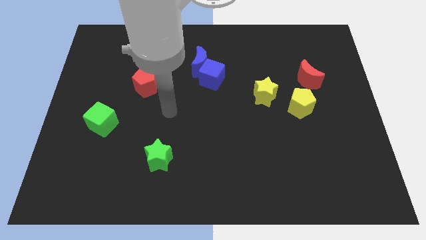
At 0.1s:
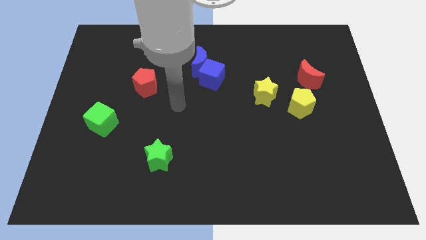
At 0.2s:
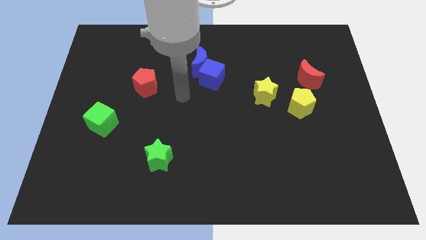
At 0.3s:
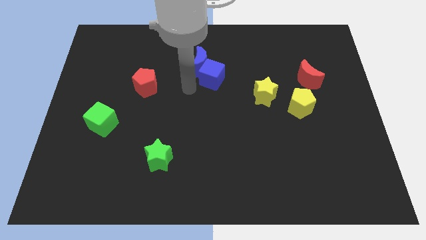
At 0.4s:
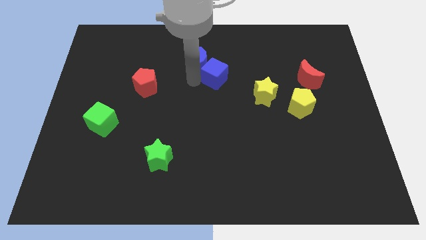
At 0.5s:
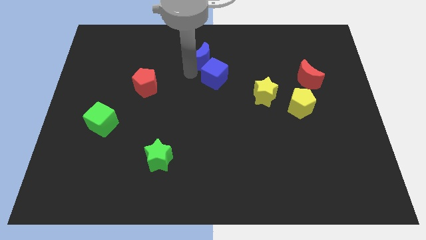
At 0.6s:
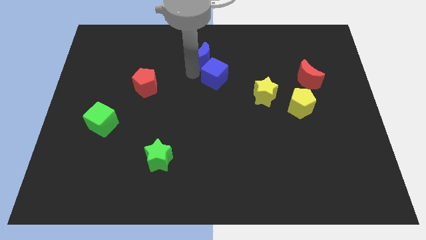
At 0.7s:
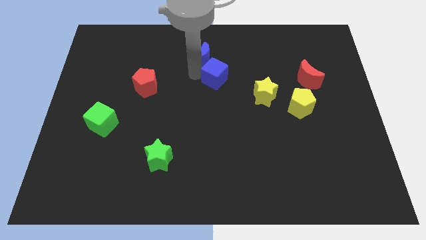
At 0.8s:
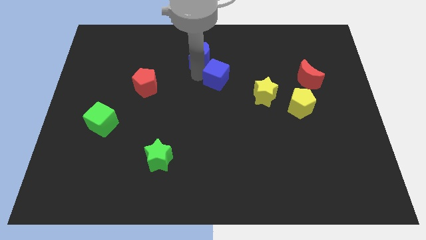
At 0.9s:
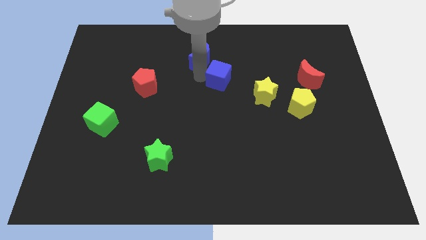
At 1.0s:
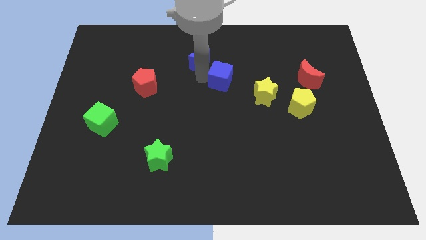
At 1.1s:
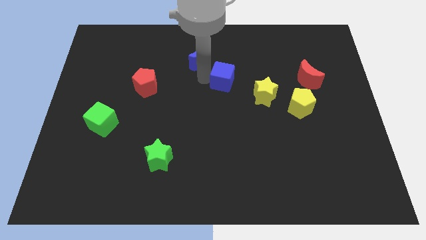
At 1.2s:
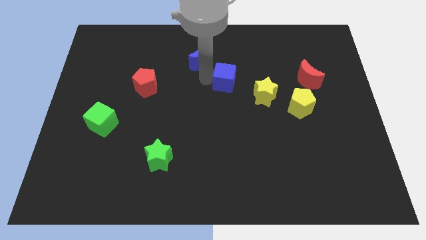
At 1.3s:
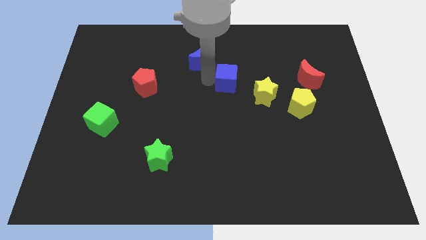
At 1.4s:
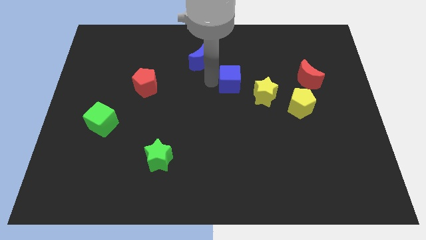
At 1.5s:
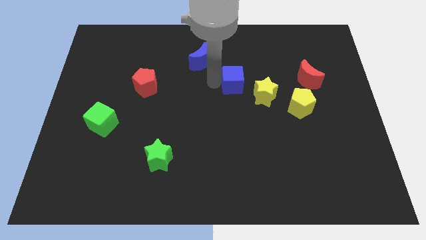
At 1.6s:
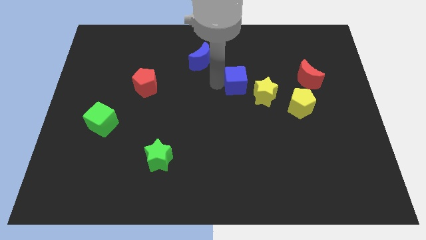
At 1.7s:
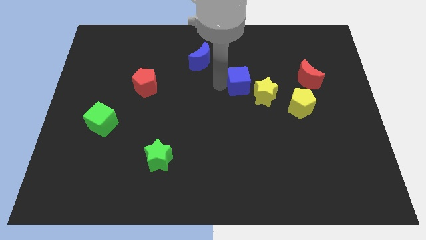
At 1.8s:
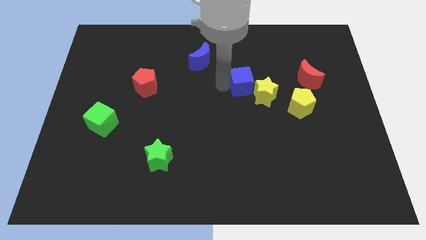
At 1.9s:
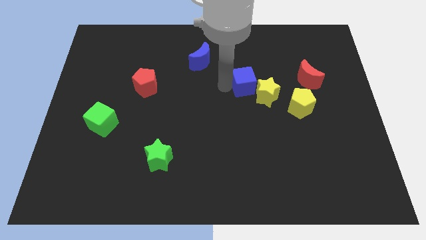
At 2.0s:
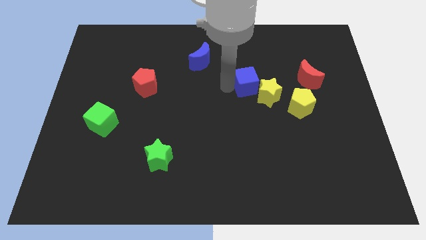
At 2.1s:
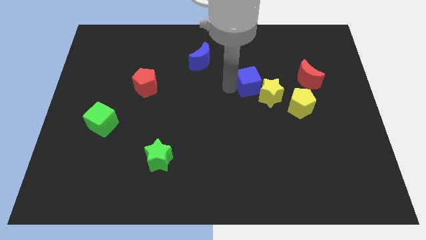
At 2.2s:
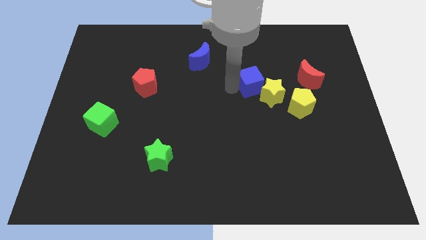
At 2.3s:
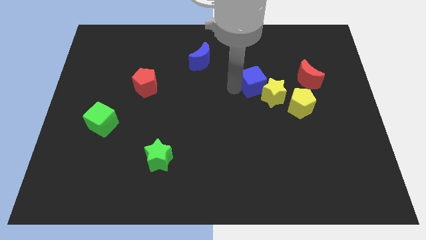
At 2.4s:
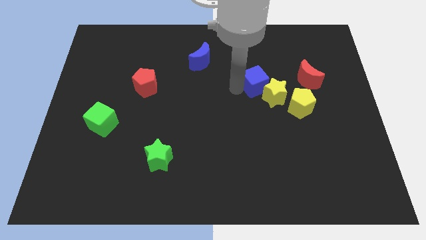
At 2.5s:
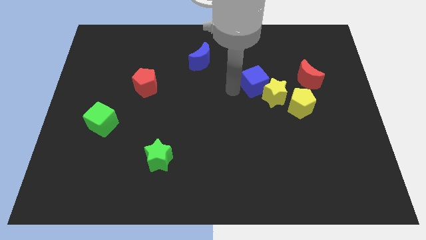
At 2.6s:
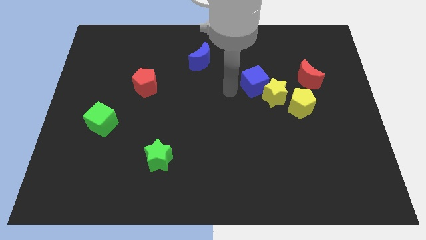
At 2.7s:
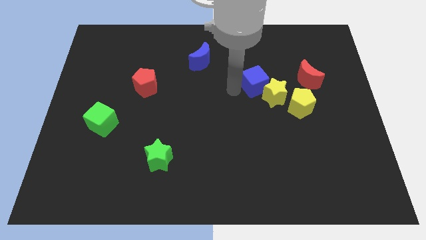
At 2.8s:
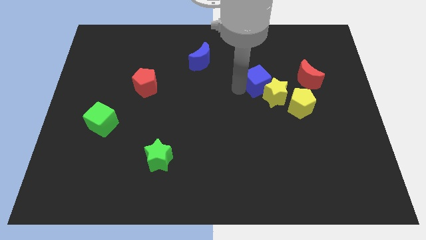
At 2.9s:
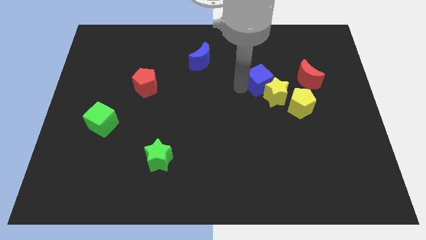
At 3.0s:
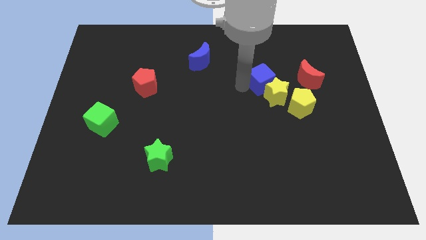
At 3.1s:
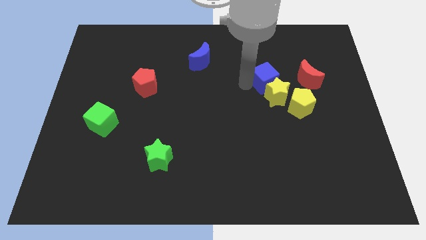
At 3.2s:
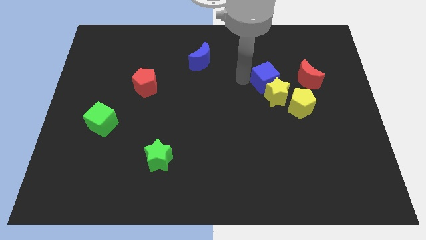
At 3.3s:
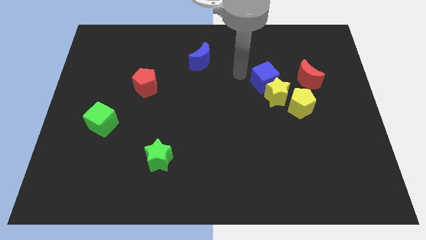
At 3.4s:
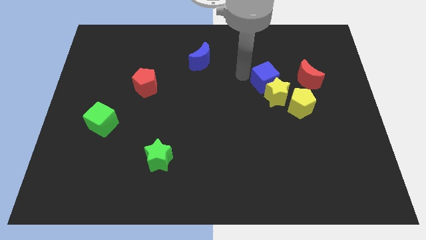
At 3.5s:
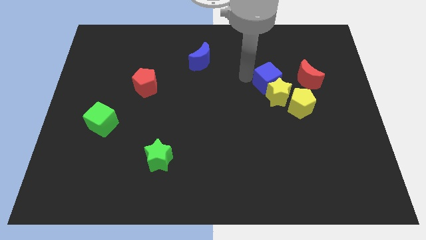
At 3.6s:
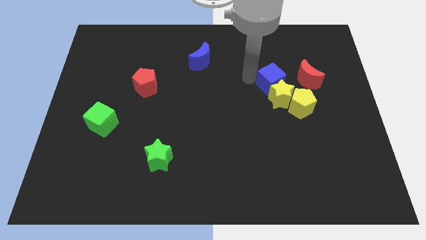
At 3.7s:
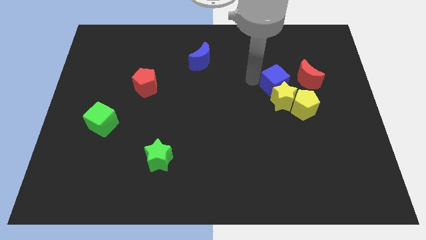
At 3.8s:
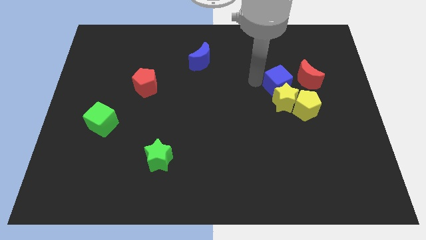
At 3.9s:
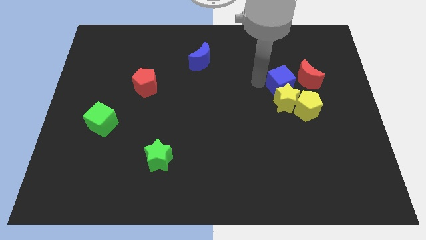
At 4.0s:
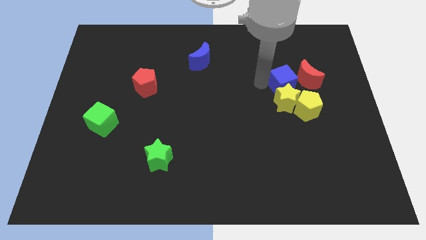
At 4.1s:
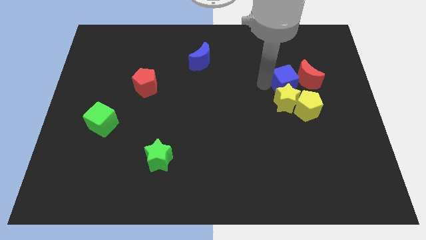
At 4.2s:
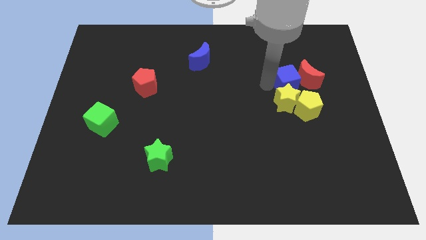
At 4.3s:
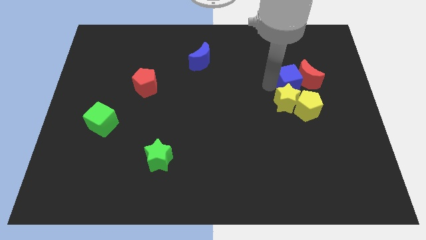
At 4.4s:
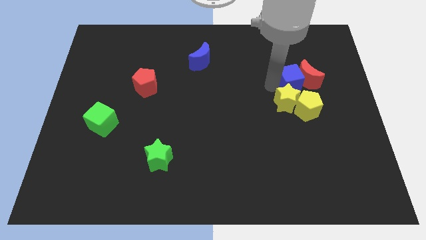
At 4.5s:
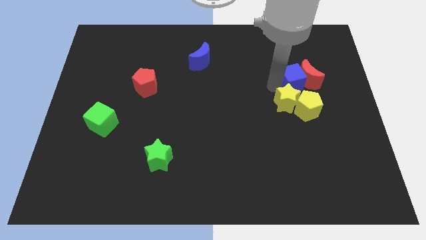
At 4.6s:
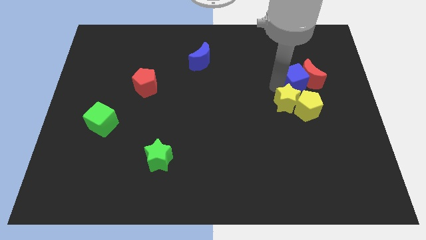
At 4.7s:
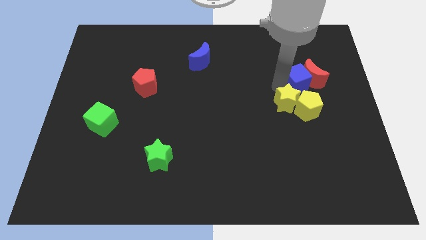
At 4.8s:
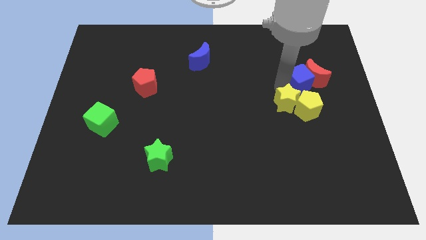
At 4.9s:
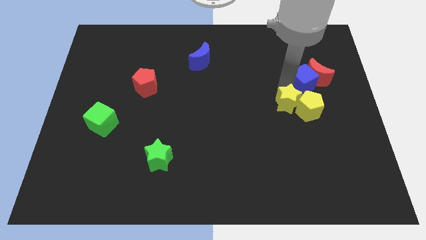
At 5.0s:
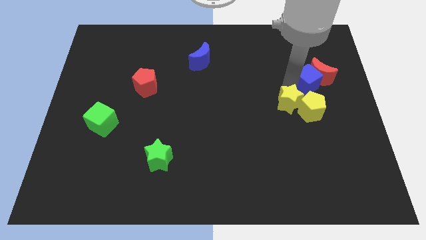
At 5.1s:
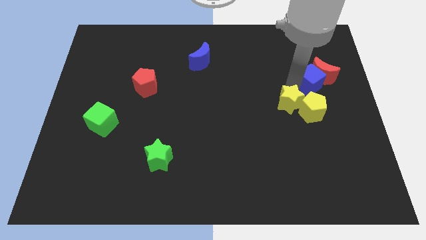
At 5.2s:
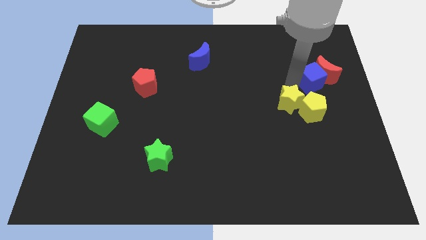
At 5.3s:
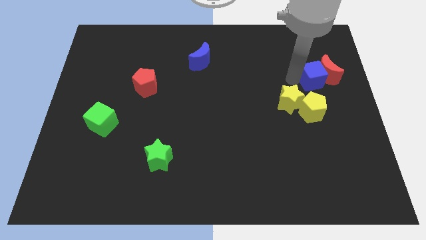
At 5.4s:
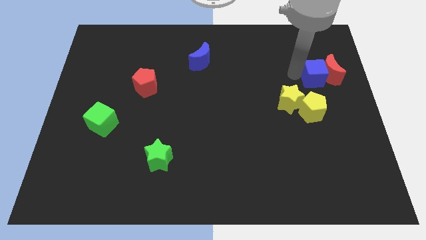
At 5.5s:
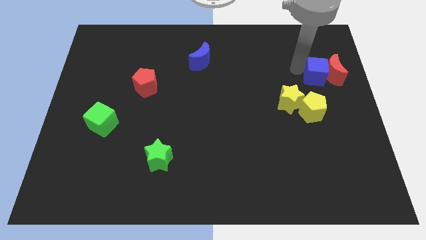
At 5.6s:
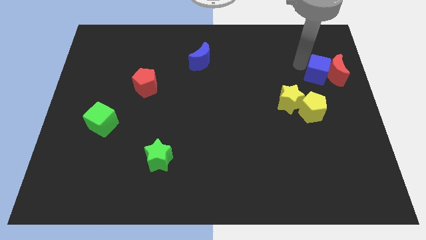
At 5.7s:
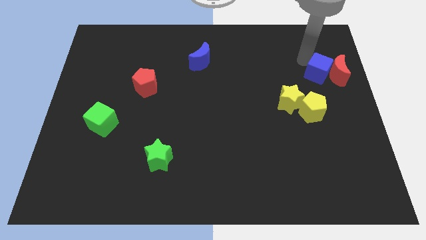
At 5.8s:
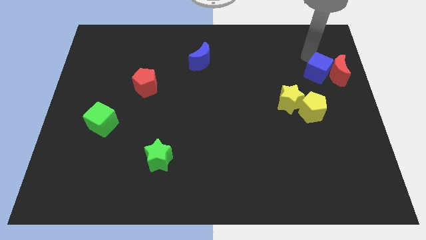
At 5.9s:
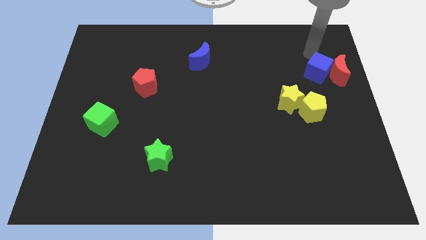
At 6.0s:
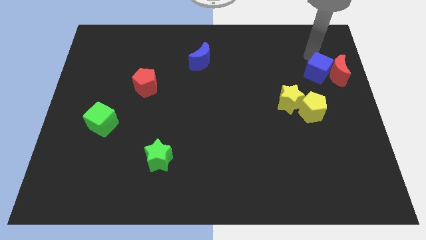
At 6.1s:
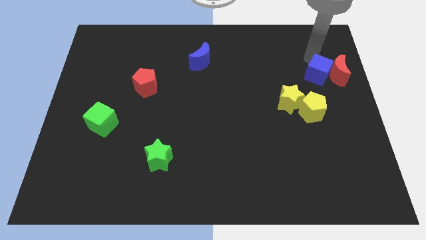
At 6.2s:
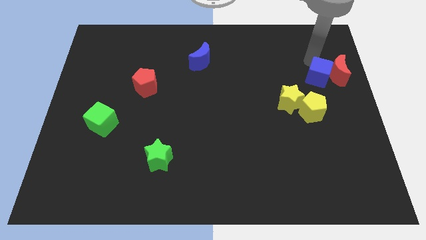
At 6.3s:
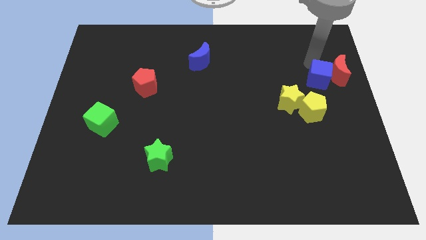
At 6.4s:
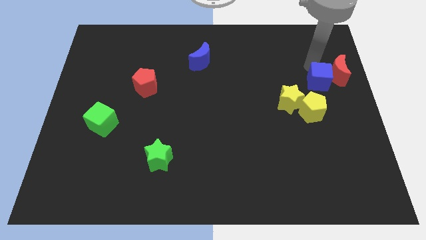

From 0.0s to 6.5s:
move the blue cube to the right side of the board

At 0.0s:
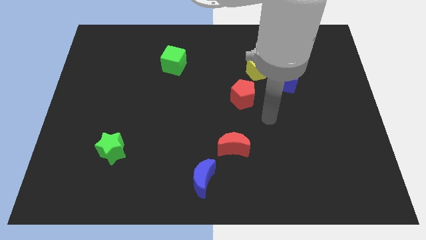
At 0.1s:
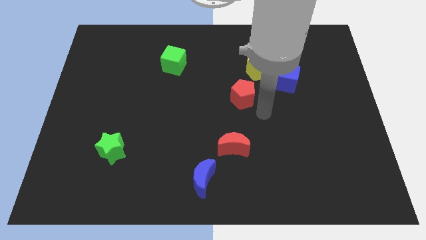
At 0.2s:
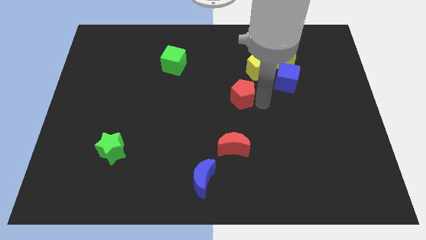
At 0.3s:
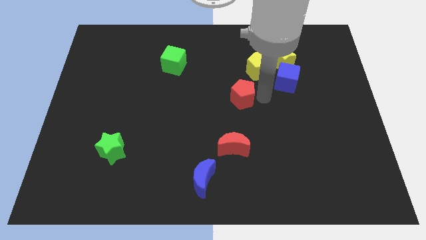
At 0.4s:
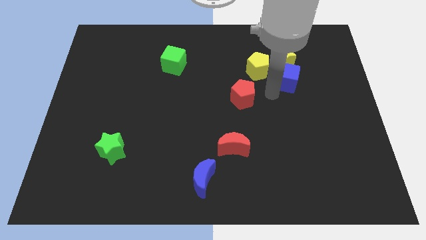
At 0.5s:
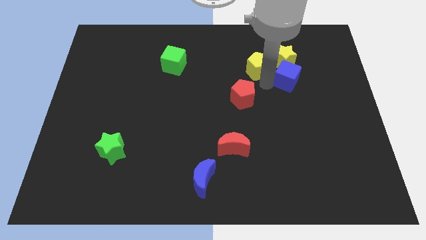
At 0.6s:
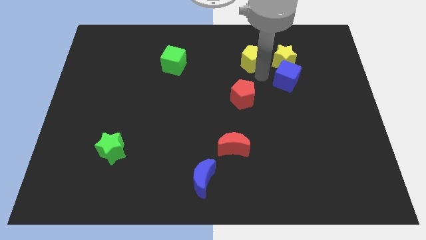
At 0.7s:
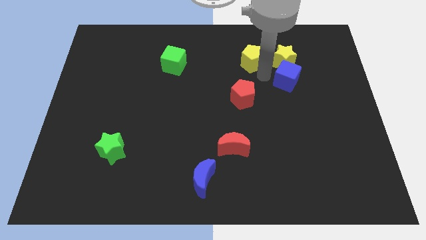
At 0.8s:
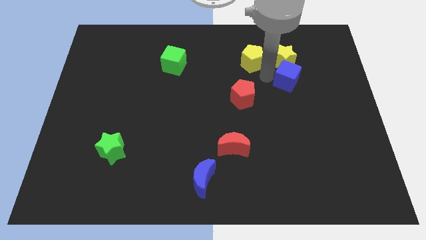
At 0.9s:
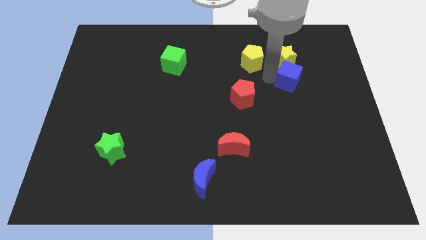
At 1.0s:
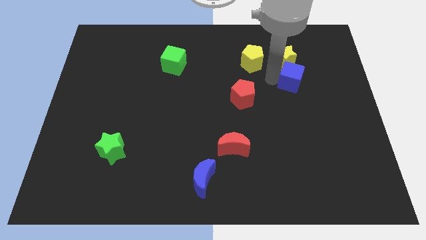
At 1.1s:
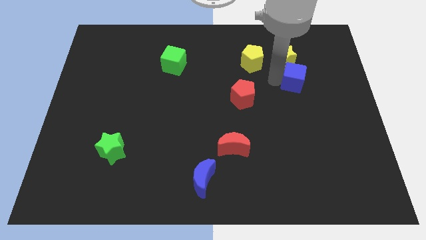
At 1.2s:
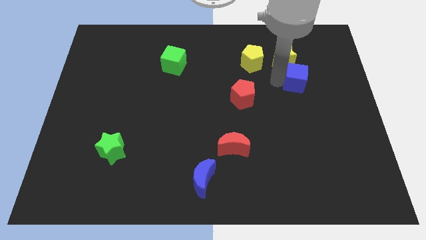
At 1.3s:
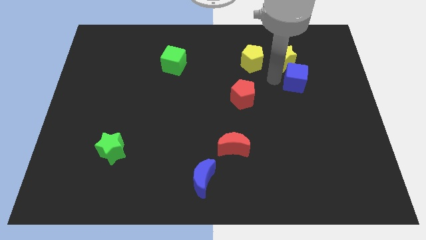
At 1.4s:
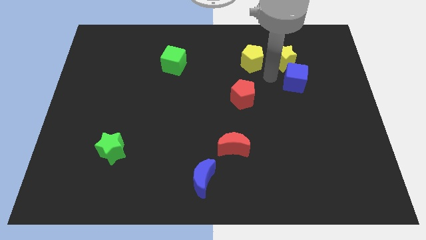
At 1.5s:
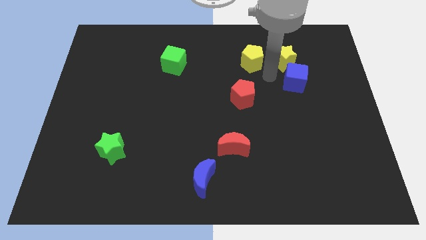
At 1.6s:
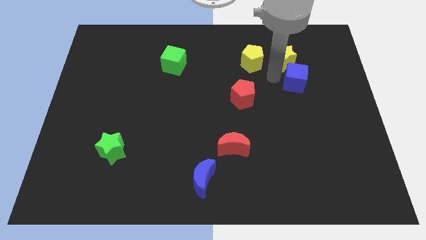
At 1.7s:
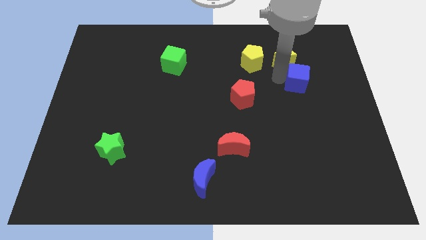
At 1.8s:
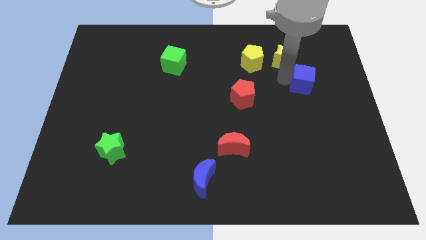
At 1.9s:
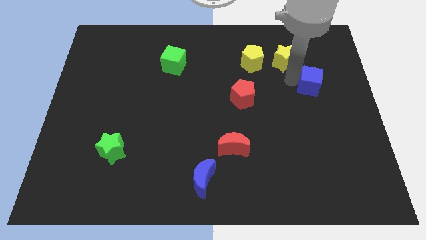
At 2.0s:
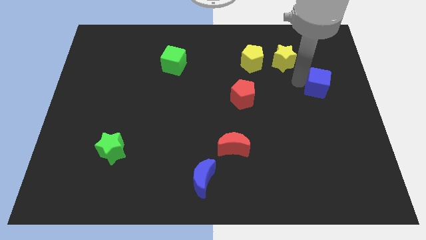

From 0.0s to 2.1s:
push the blue cube to the center right
